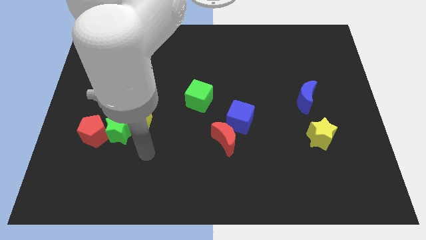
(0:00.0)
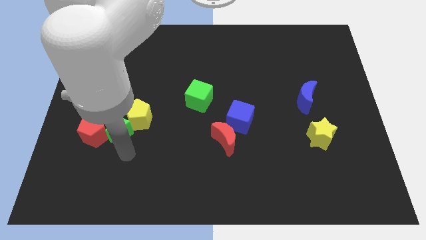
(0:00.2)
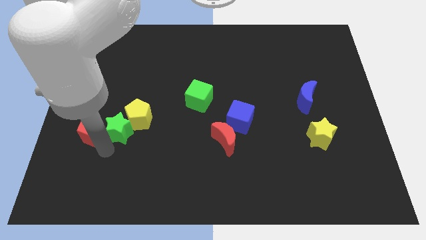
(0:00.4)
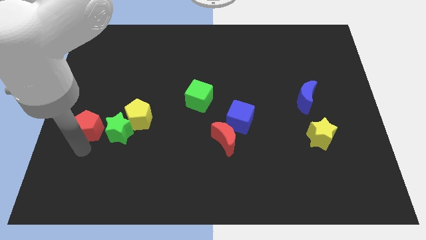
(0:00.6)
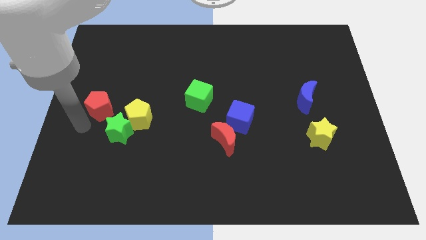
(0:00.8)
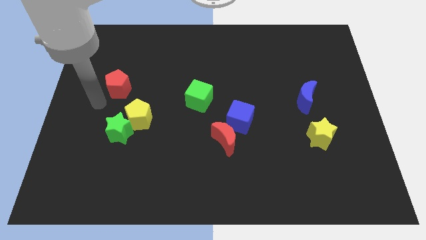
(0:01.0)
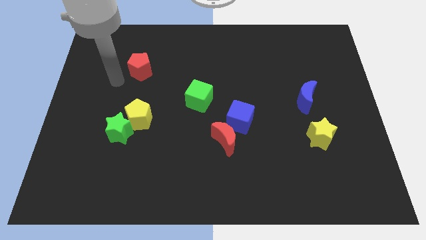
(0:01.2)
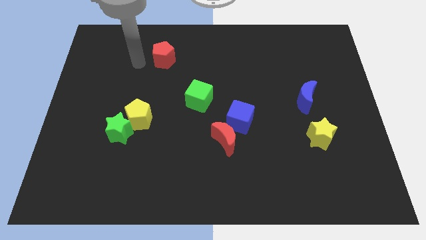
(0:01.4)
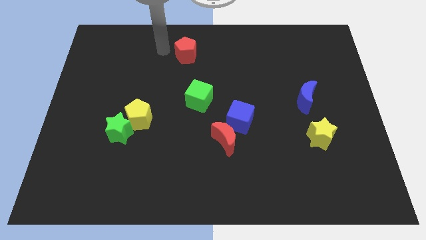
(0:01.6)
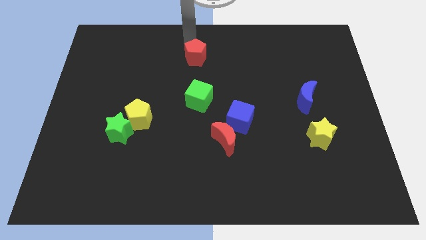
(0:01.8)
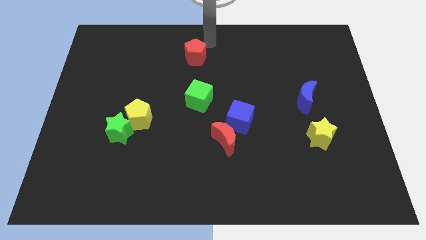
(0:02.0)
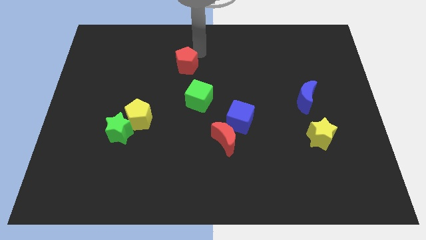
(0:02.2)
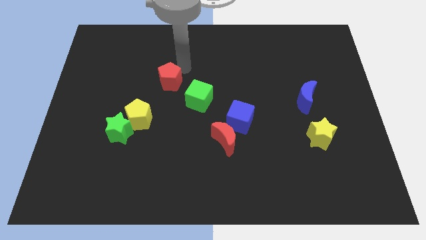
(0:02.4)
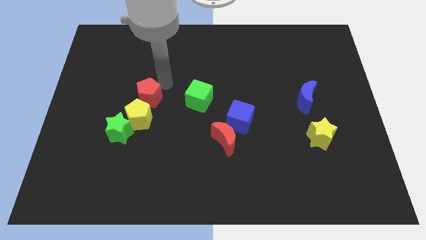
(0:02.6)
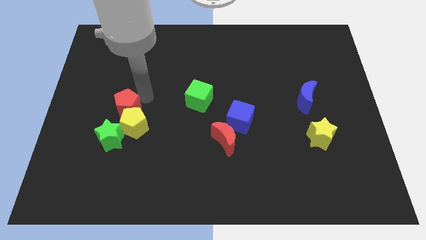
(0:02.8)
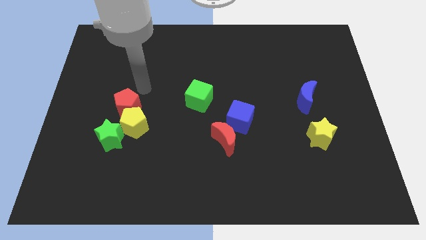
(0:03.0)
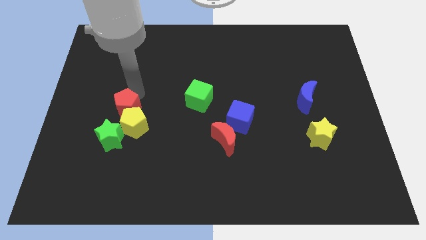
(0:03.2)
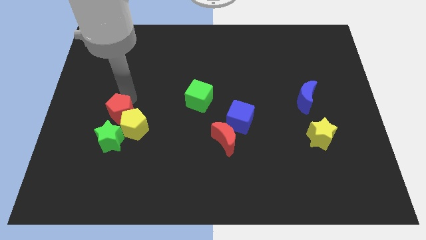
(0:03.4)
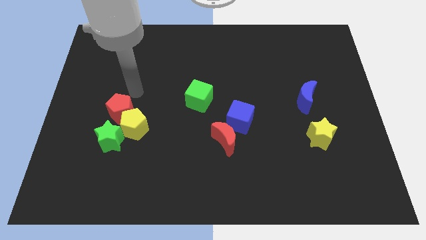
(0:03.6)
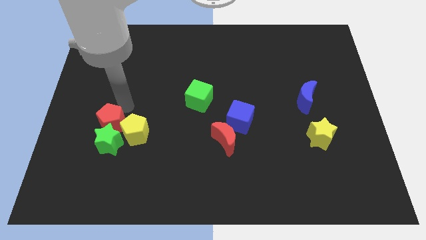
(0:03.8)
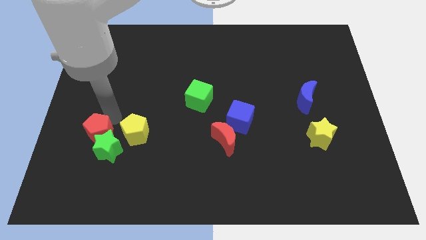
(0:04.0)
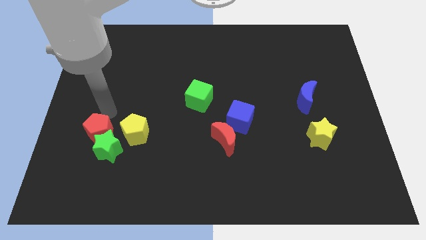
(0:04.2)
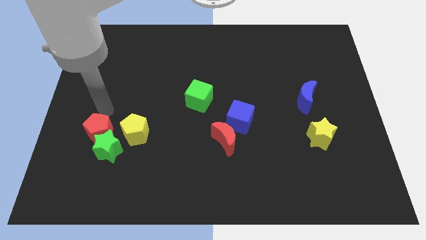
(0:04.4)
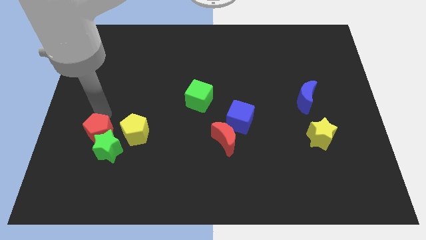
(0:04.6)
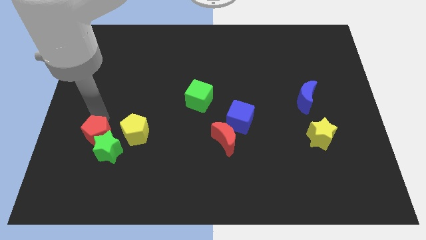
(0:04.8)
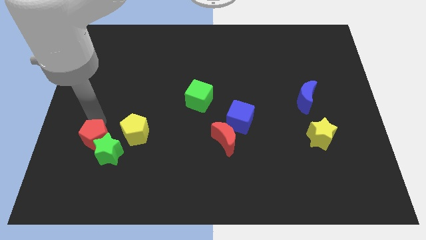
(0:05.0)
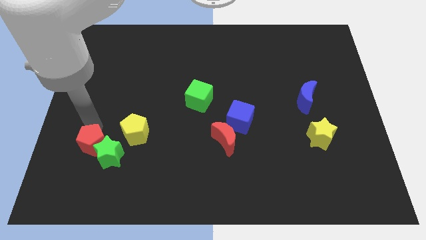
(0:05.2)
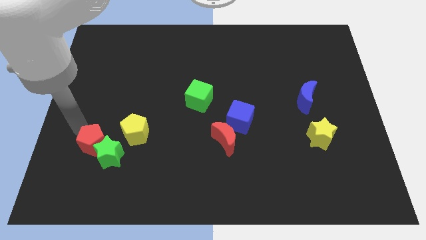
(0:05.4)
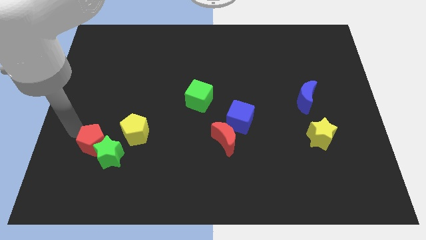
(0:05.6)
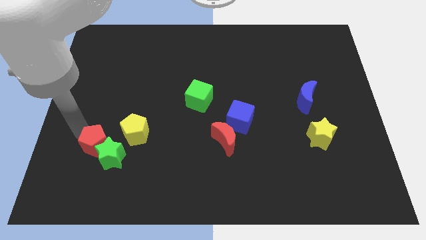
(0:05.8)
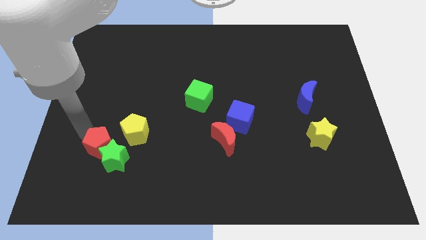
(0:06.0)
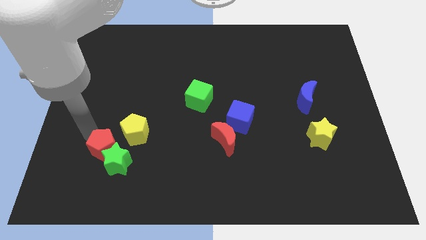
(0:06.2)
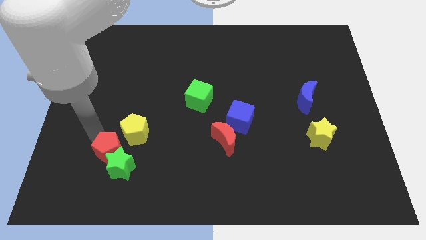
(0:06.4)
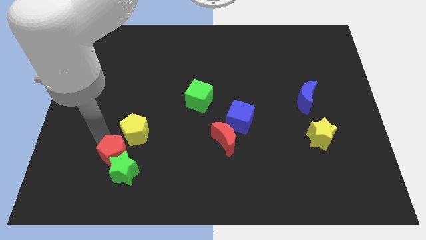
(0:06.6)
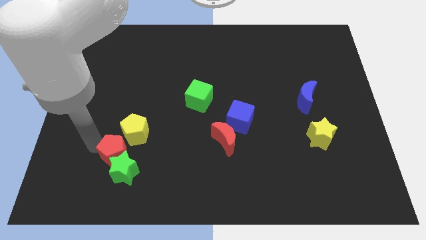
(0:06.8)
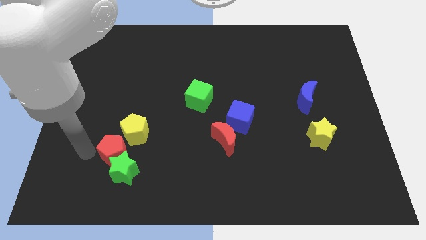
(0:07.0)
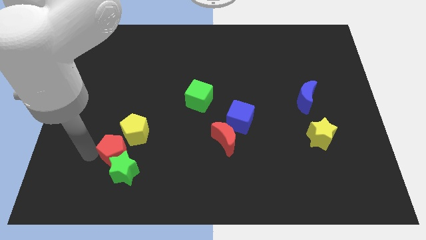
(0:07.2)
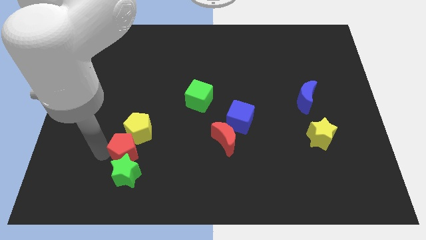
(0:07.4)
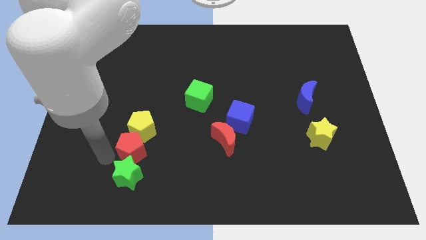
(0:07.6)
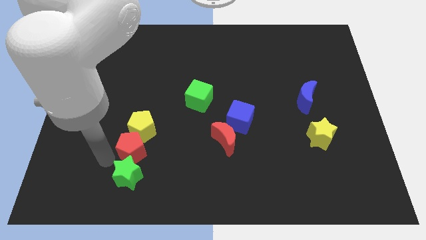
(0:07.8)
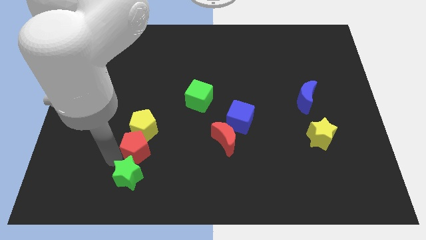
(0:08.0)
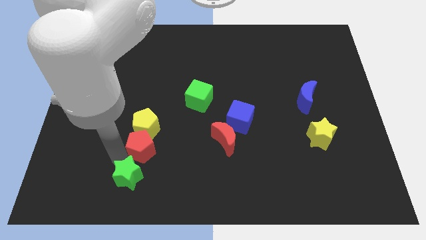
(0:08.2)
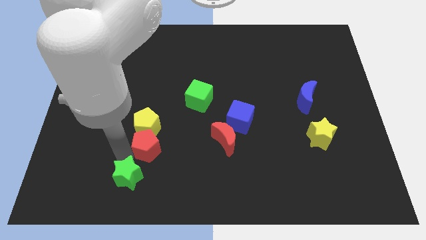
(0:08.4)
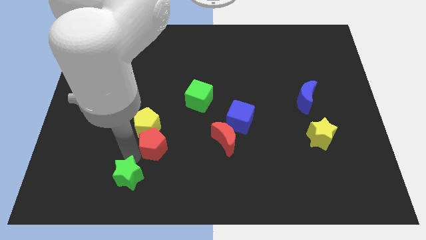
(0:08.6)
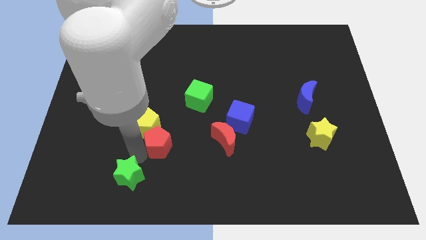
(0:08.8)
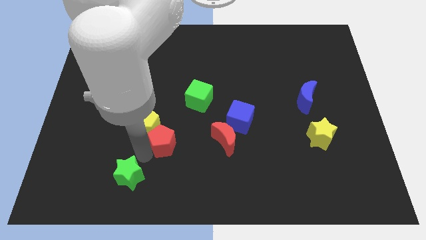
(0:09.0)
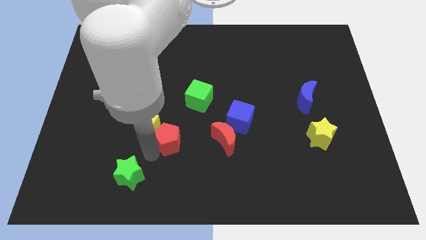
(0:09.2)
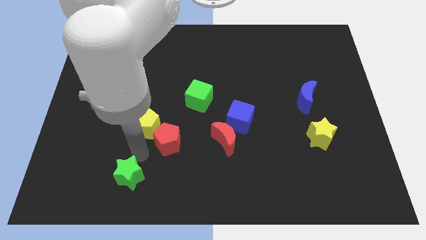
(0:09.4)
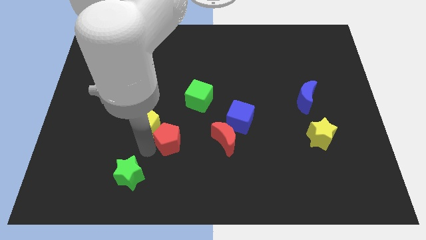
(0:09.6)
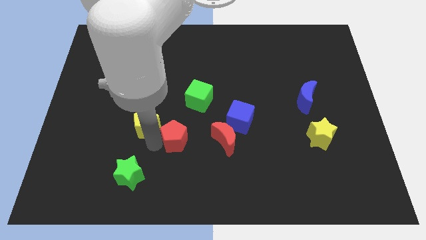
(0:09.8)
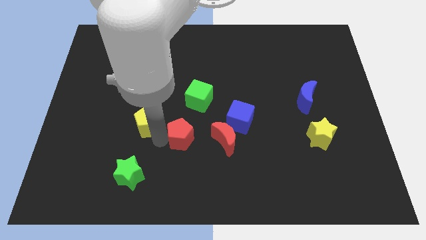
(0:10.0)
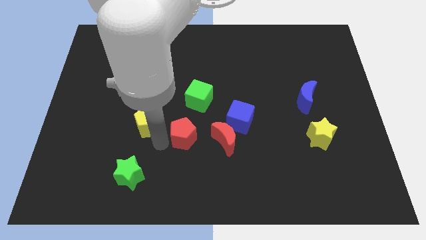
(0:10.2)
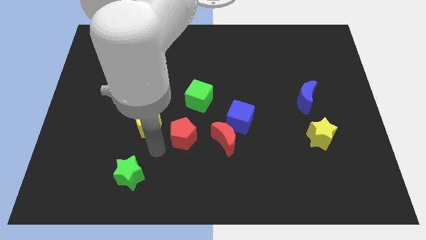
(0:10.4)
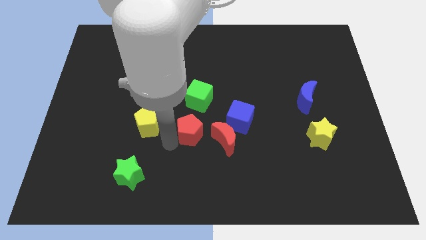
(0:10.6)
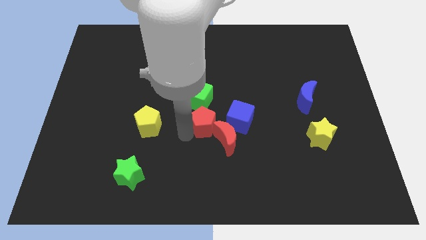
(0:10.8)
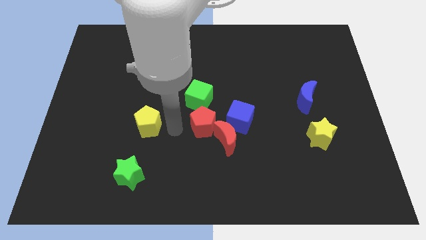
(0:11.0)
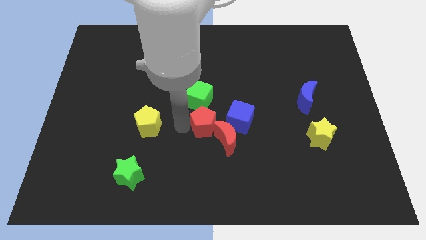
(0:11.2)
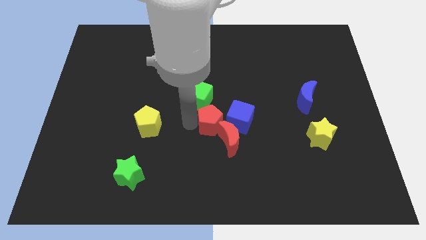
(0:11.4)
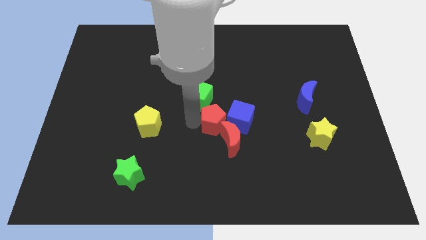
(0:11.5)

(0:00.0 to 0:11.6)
slide the red pentagon next to the blue cube

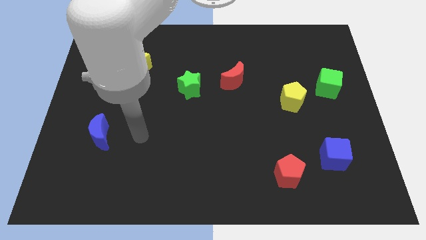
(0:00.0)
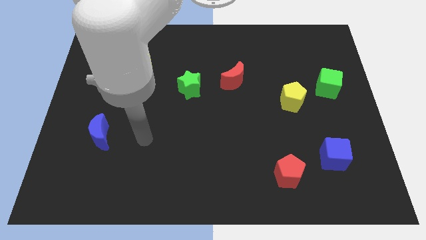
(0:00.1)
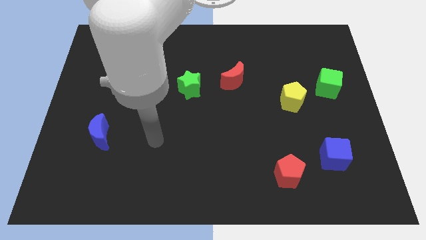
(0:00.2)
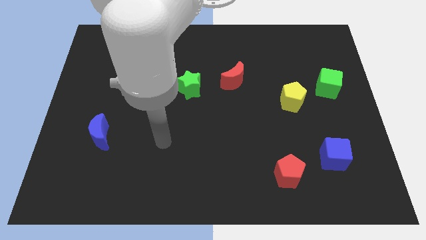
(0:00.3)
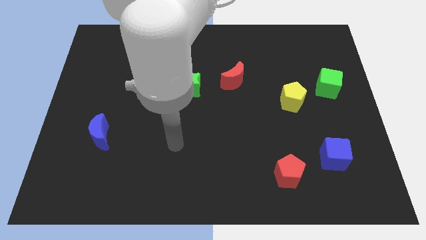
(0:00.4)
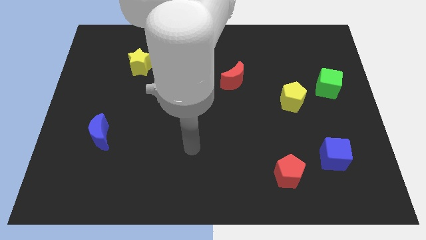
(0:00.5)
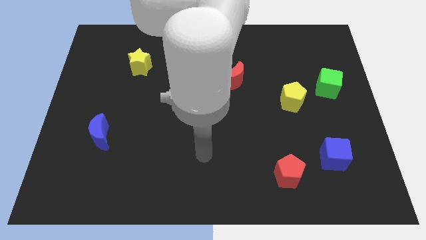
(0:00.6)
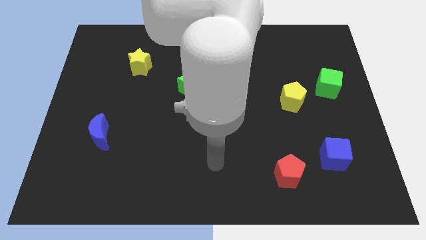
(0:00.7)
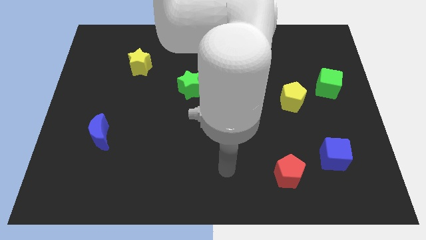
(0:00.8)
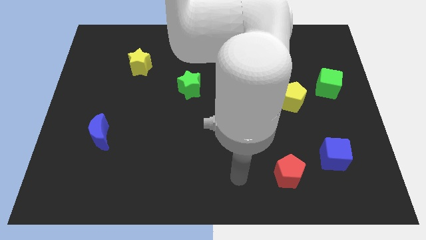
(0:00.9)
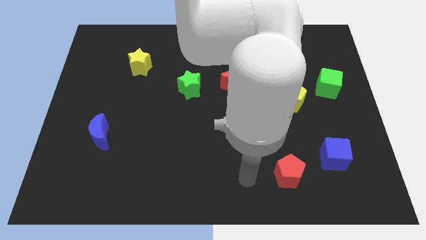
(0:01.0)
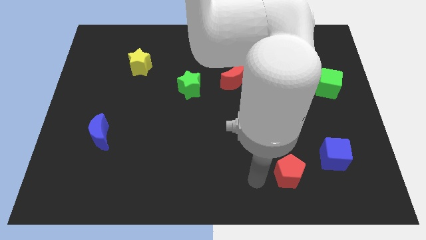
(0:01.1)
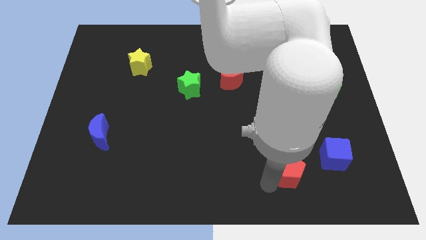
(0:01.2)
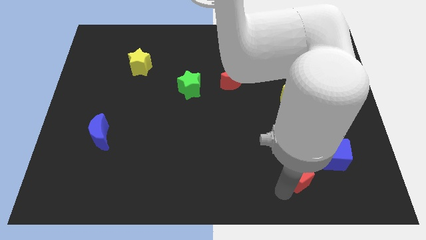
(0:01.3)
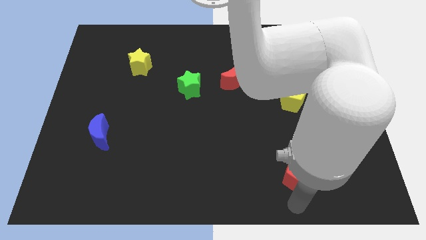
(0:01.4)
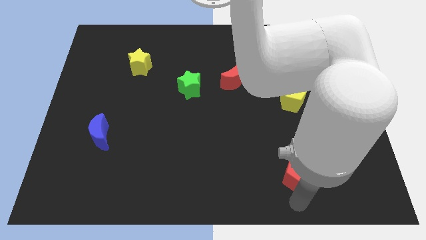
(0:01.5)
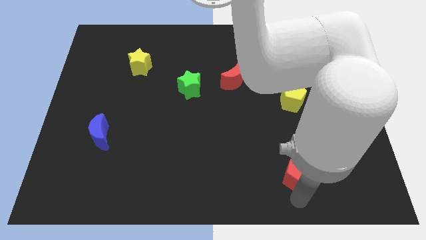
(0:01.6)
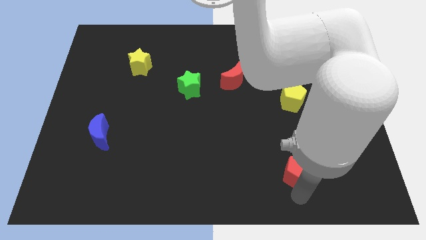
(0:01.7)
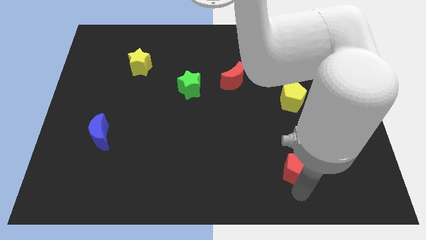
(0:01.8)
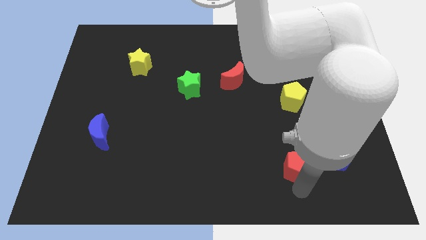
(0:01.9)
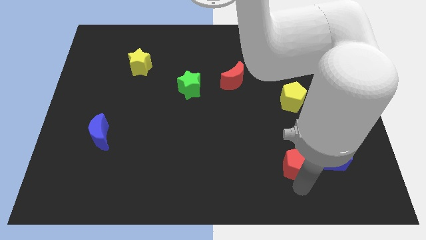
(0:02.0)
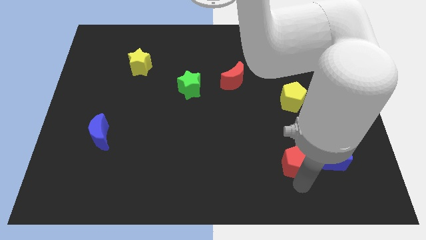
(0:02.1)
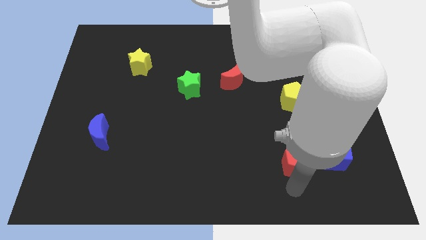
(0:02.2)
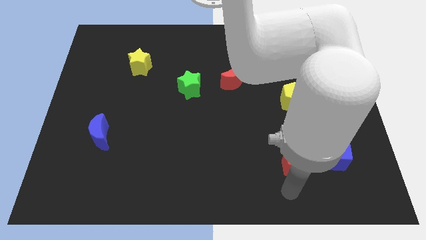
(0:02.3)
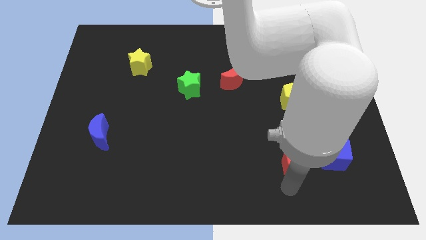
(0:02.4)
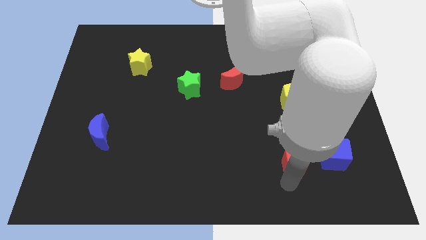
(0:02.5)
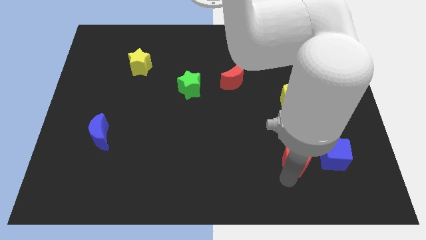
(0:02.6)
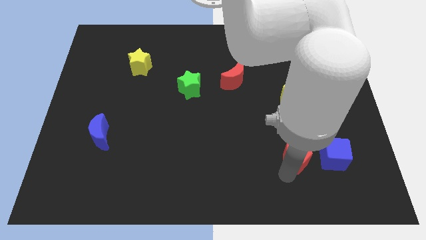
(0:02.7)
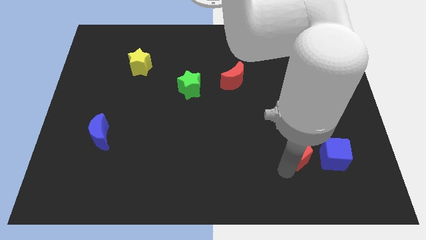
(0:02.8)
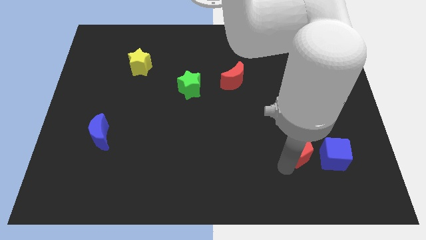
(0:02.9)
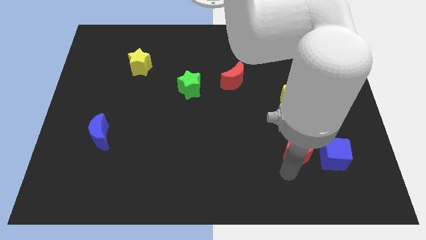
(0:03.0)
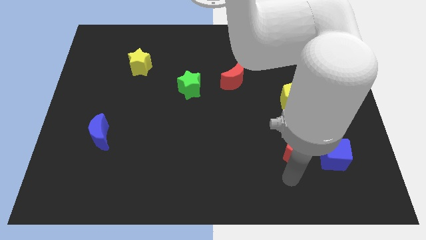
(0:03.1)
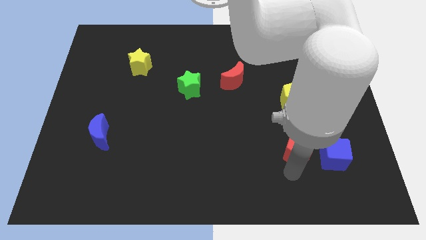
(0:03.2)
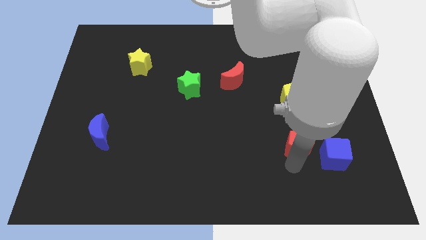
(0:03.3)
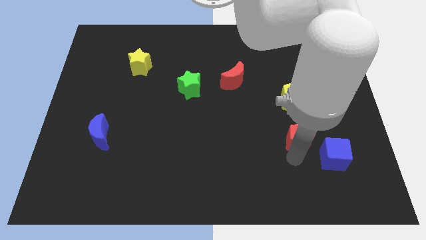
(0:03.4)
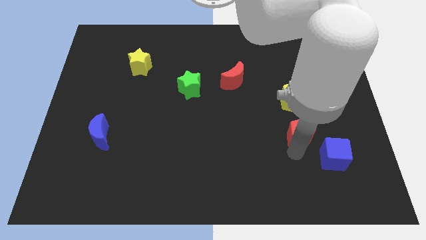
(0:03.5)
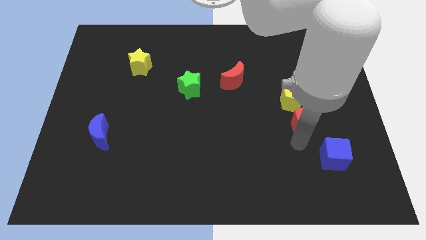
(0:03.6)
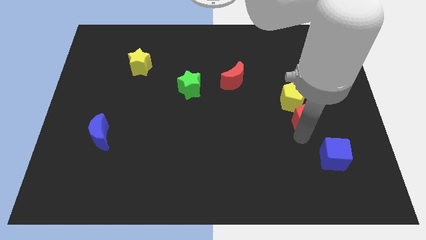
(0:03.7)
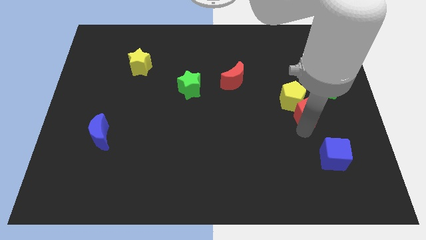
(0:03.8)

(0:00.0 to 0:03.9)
push the red pentagon to the yellow pentagon
